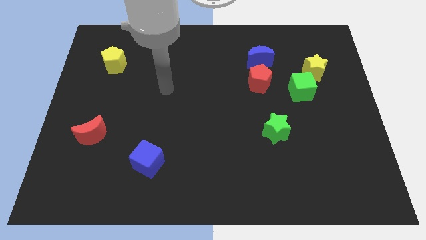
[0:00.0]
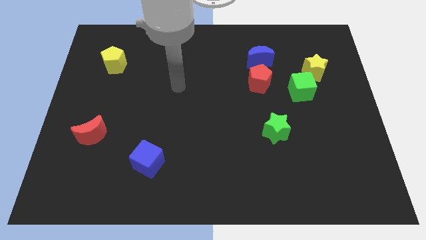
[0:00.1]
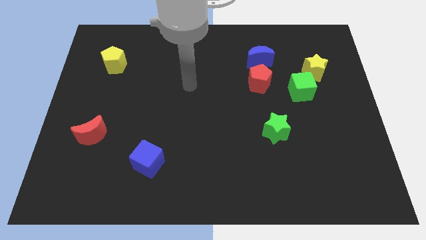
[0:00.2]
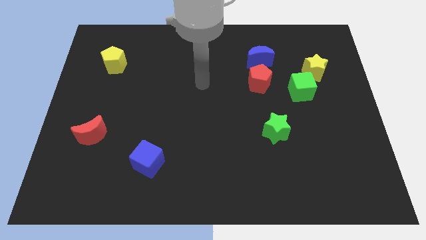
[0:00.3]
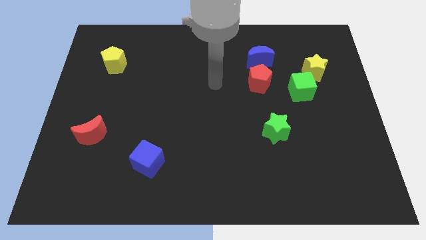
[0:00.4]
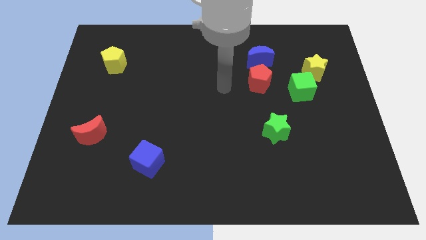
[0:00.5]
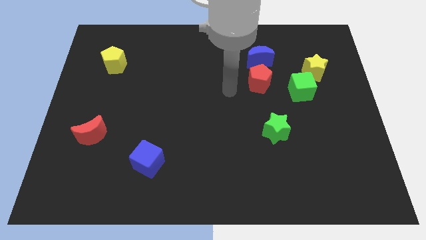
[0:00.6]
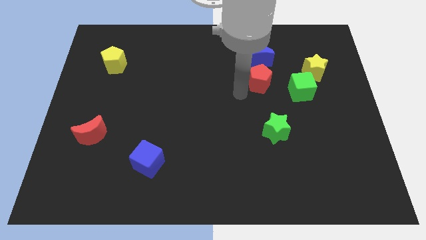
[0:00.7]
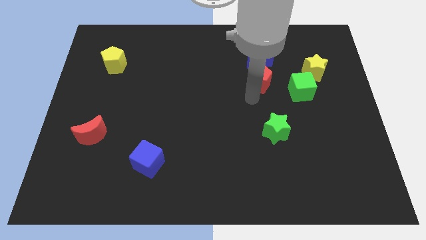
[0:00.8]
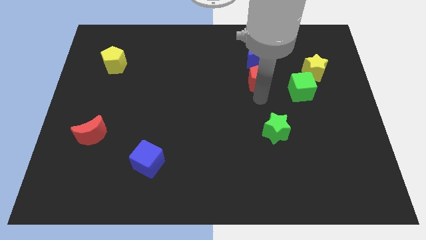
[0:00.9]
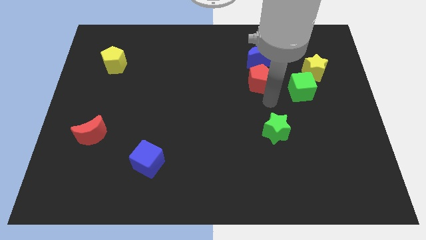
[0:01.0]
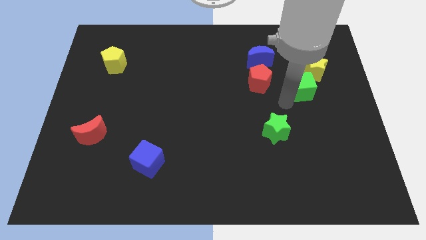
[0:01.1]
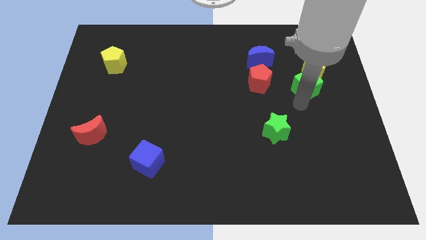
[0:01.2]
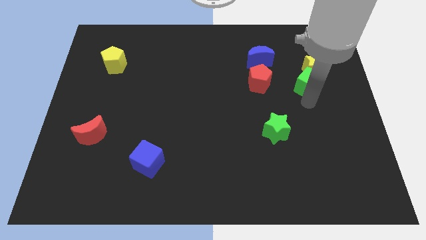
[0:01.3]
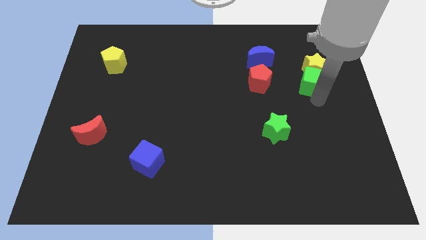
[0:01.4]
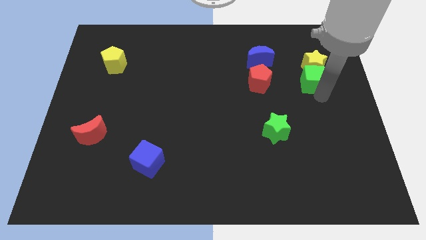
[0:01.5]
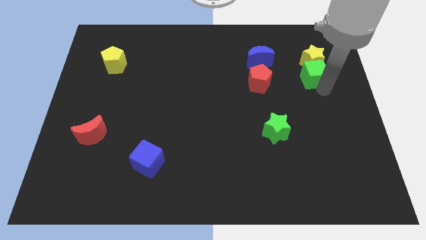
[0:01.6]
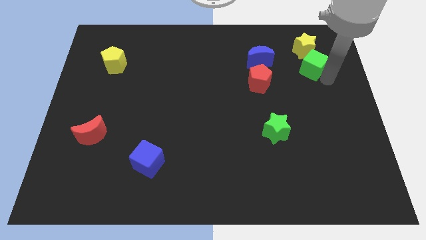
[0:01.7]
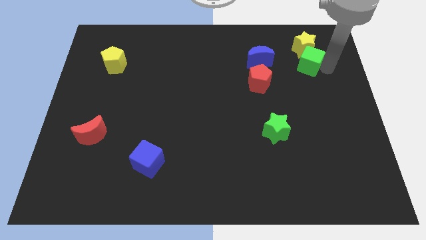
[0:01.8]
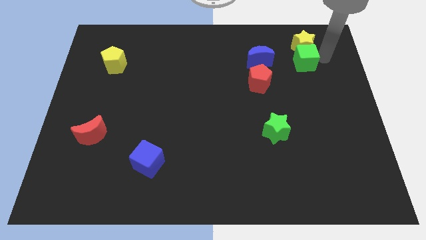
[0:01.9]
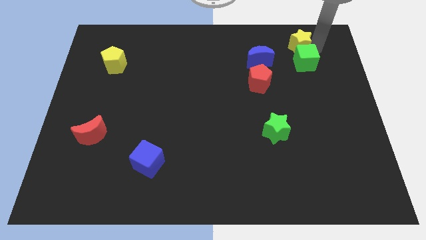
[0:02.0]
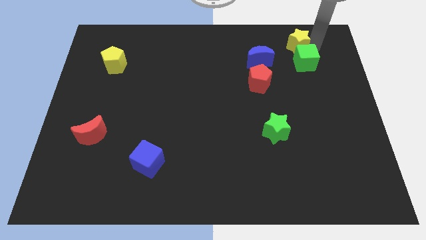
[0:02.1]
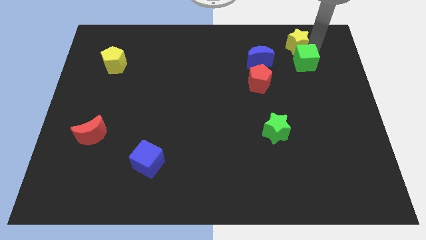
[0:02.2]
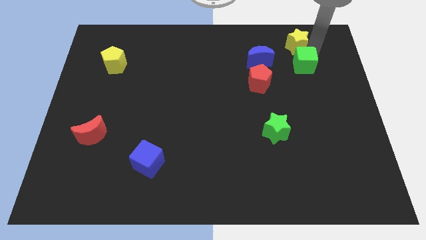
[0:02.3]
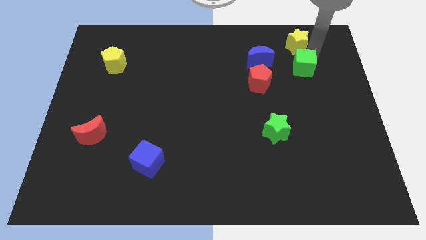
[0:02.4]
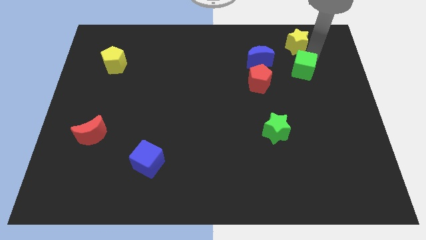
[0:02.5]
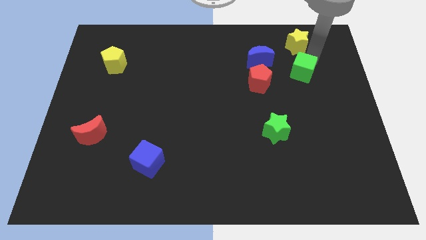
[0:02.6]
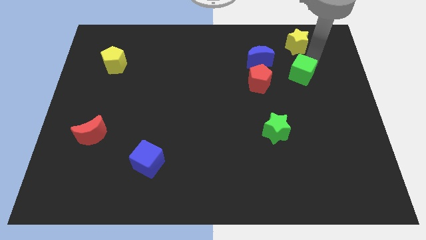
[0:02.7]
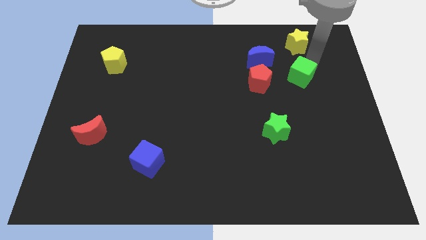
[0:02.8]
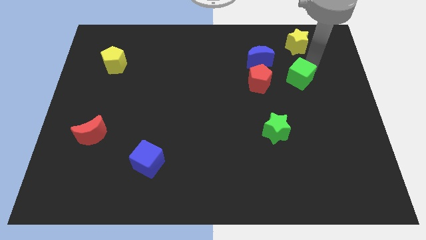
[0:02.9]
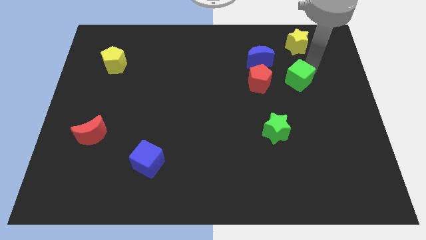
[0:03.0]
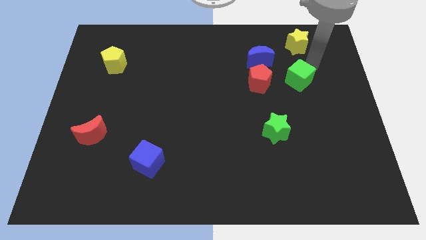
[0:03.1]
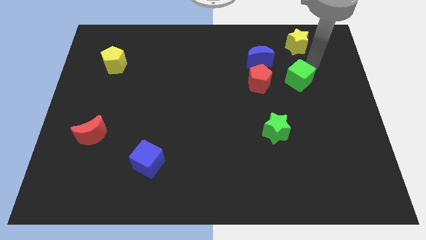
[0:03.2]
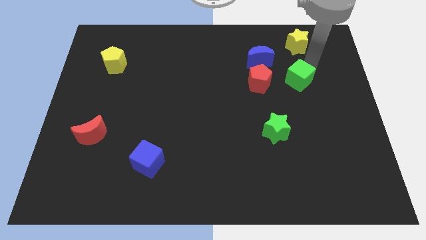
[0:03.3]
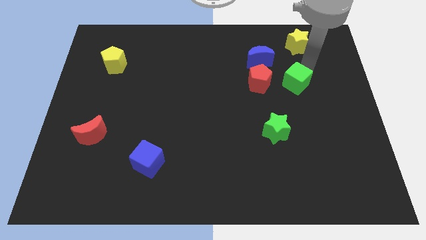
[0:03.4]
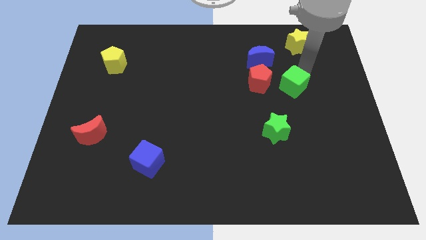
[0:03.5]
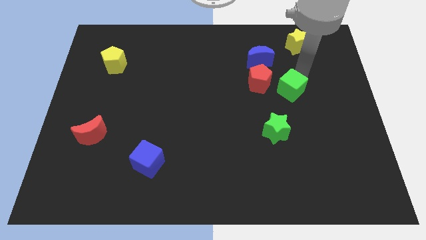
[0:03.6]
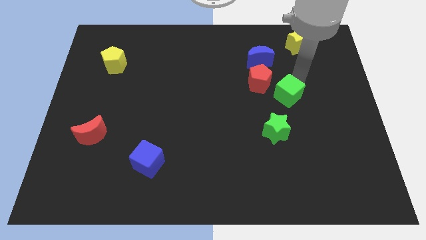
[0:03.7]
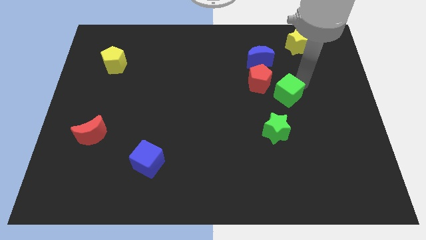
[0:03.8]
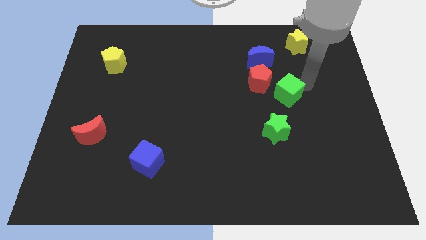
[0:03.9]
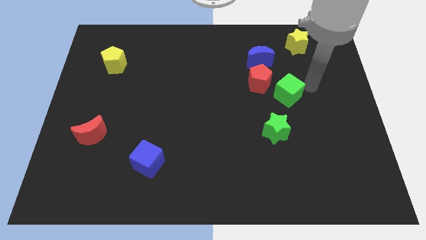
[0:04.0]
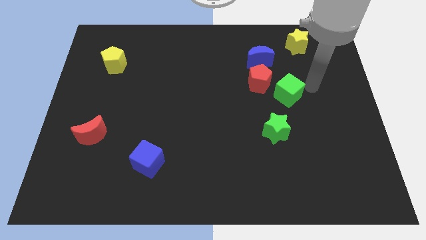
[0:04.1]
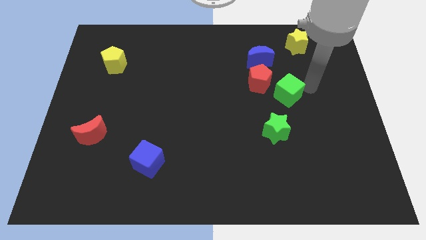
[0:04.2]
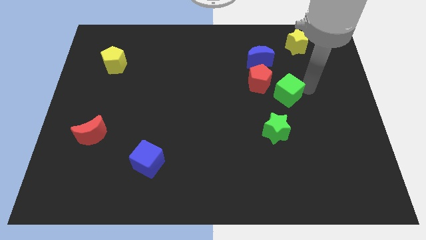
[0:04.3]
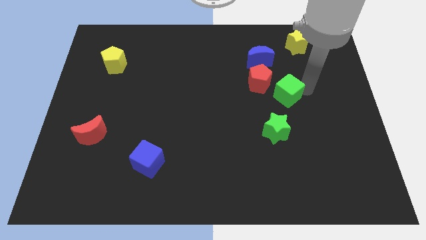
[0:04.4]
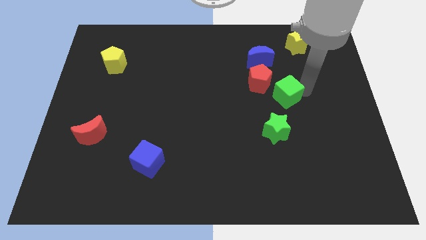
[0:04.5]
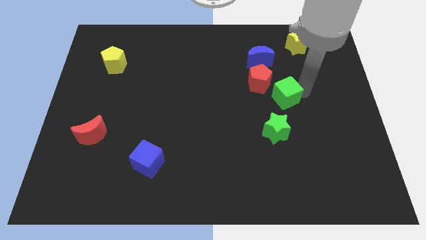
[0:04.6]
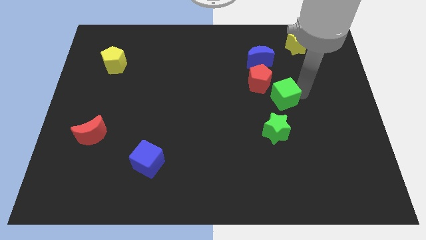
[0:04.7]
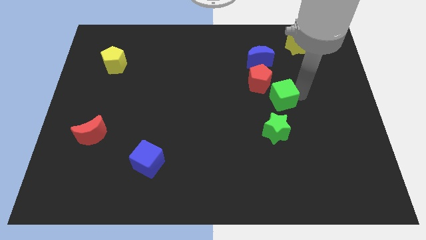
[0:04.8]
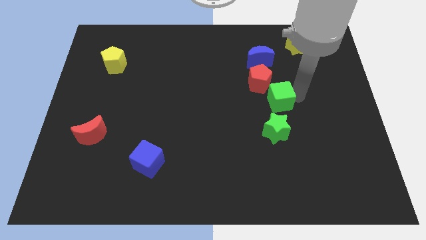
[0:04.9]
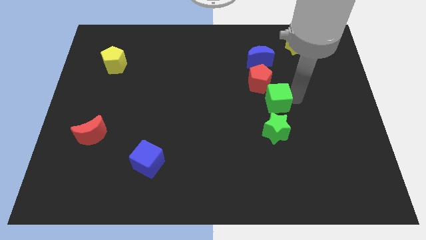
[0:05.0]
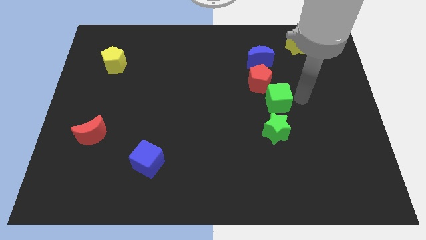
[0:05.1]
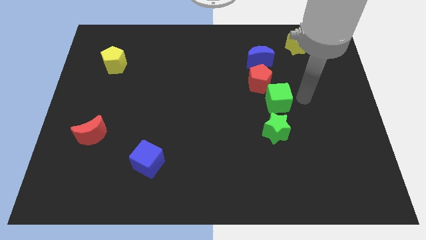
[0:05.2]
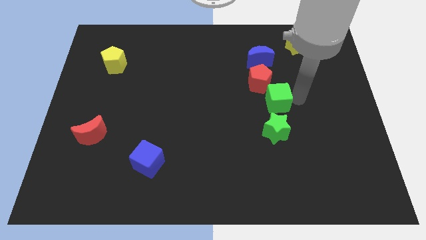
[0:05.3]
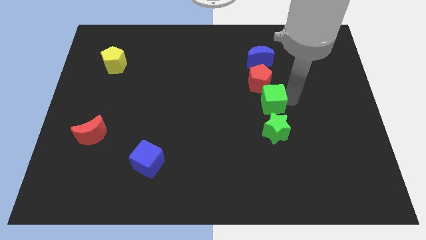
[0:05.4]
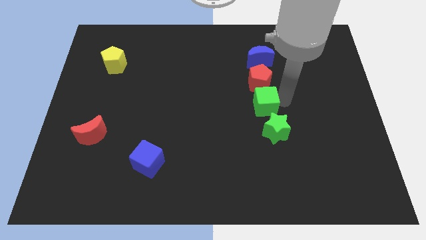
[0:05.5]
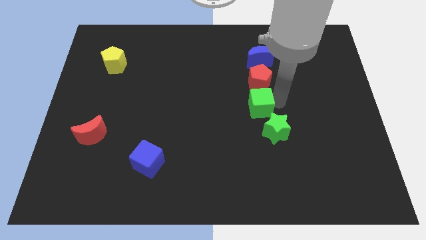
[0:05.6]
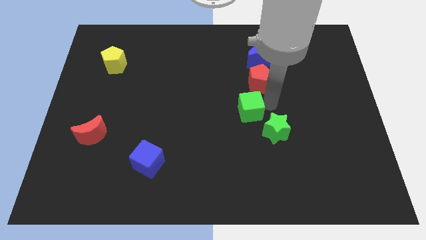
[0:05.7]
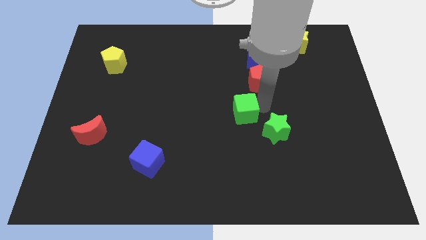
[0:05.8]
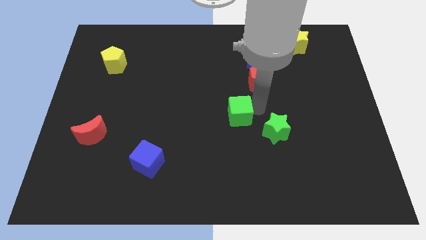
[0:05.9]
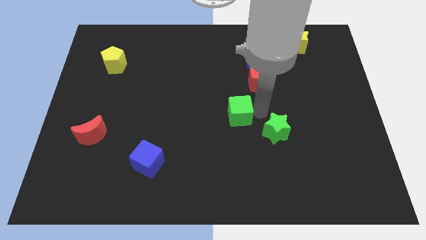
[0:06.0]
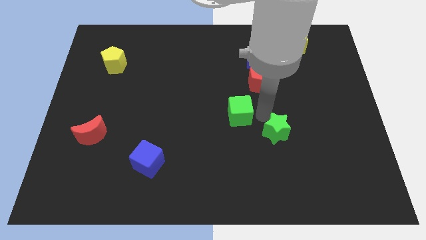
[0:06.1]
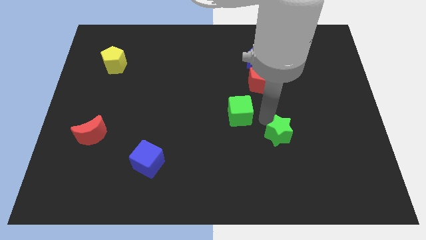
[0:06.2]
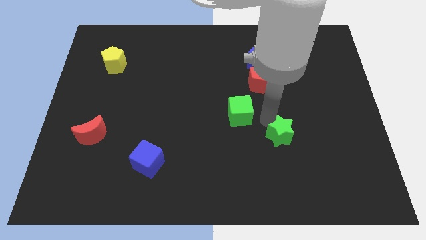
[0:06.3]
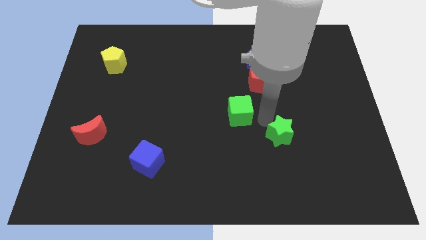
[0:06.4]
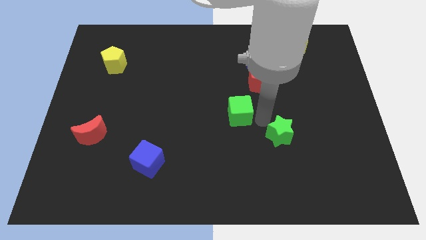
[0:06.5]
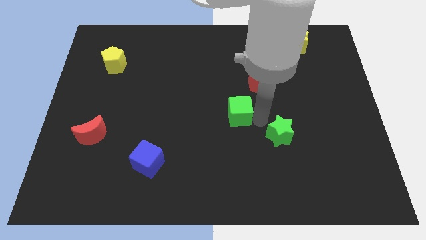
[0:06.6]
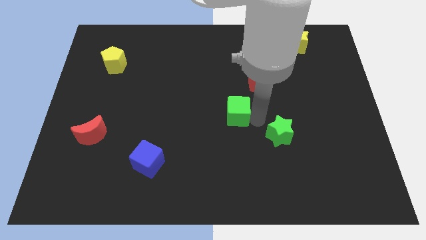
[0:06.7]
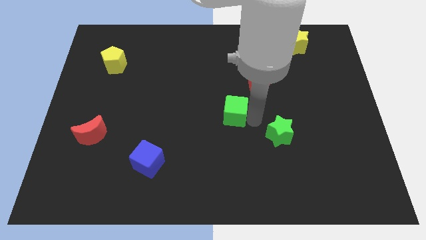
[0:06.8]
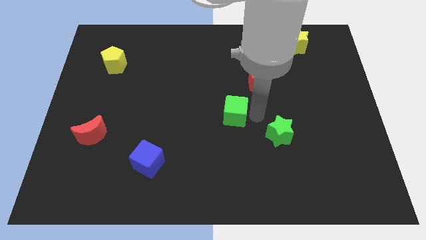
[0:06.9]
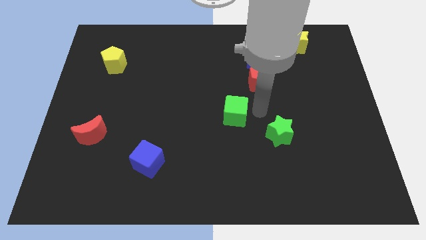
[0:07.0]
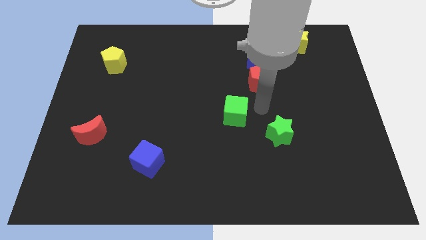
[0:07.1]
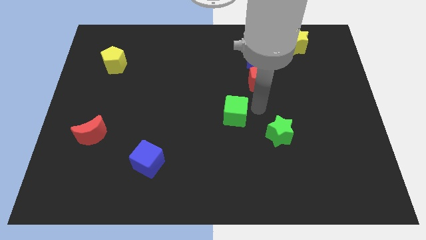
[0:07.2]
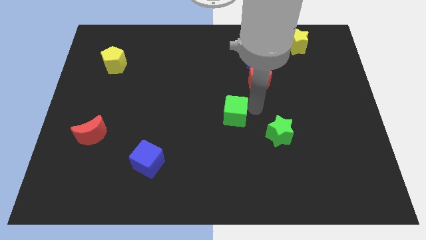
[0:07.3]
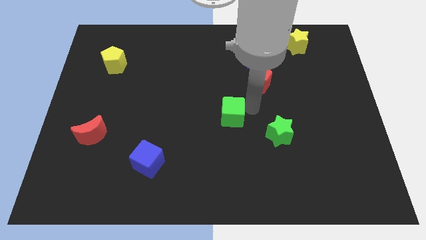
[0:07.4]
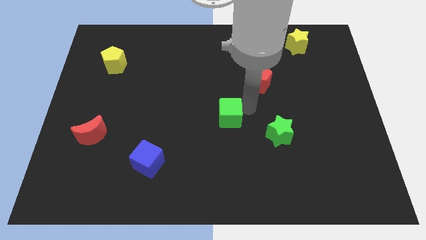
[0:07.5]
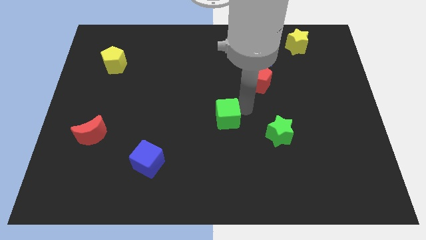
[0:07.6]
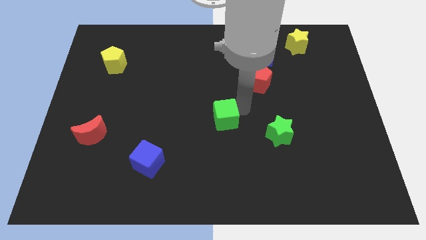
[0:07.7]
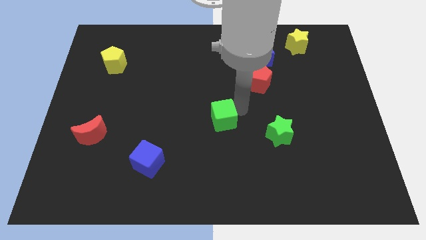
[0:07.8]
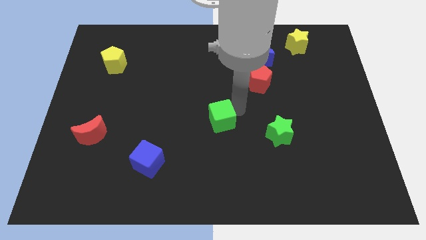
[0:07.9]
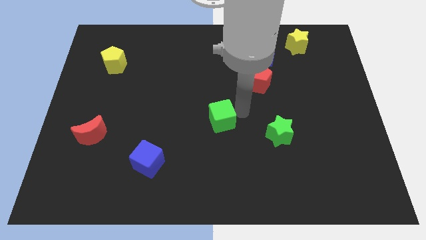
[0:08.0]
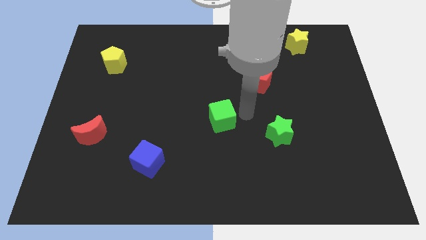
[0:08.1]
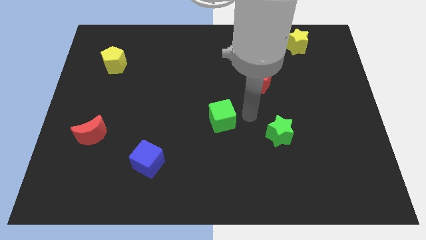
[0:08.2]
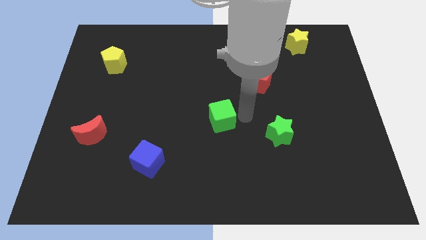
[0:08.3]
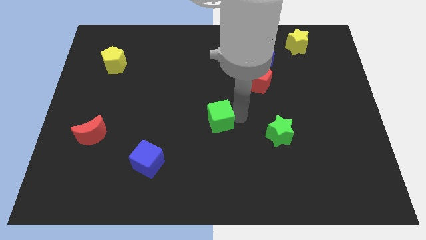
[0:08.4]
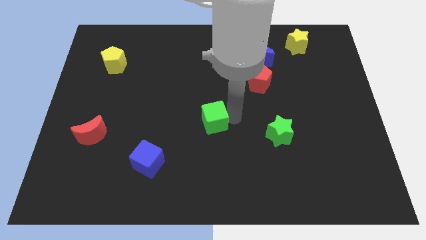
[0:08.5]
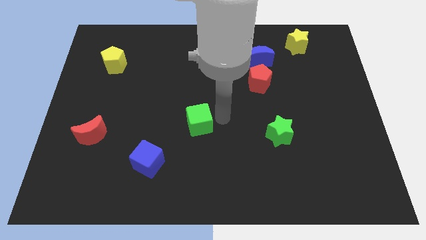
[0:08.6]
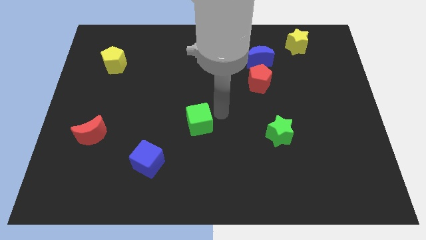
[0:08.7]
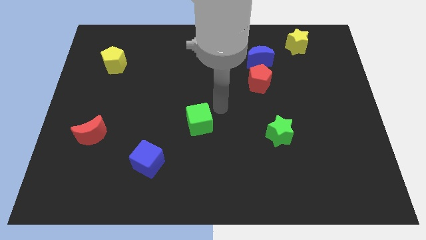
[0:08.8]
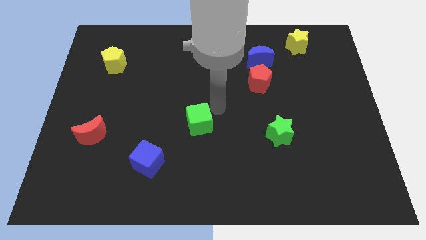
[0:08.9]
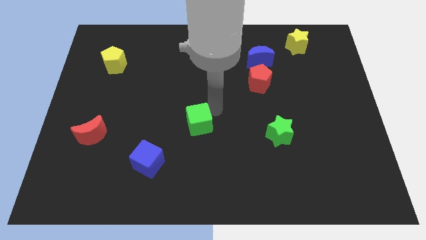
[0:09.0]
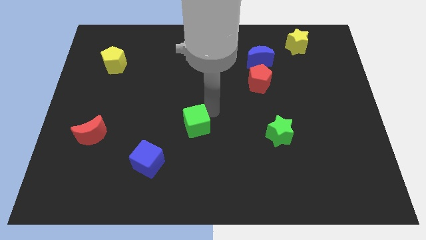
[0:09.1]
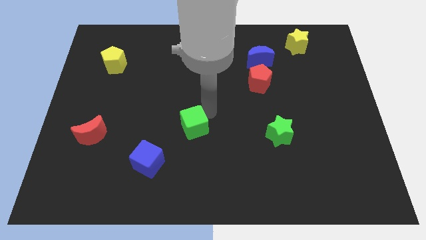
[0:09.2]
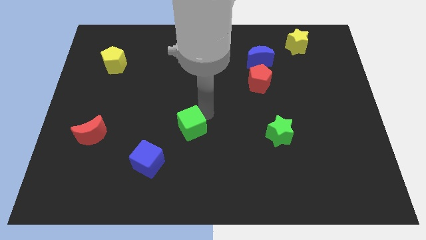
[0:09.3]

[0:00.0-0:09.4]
put the green cube to the top right of the blue cube
